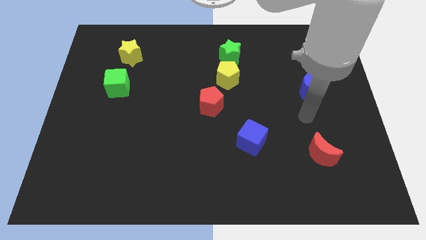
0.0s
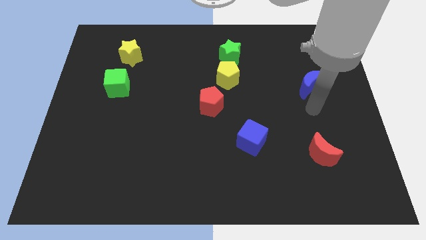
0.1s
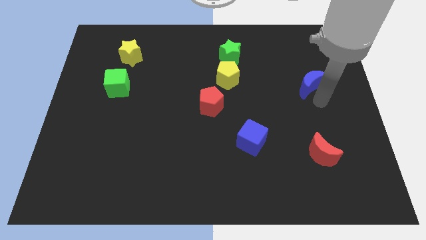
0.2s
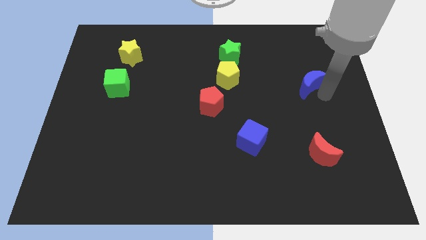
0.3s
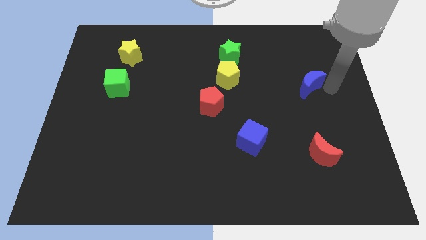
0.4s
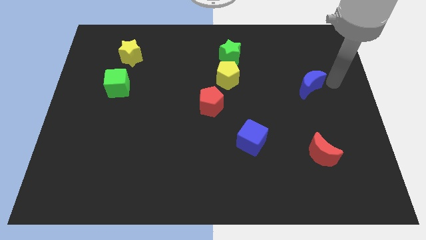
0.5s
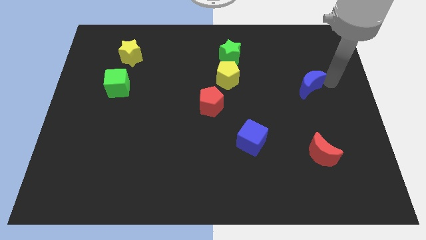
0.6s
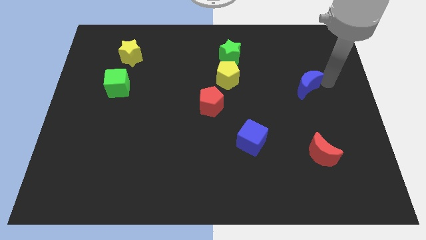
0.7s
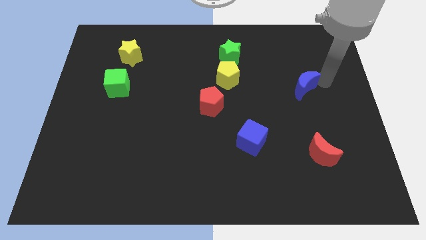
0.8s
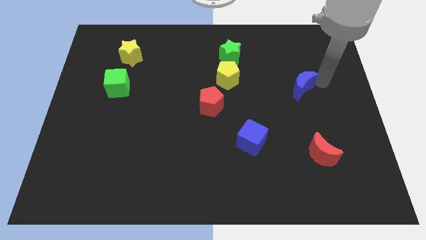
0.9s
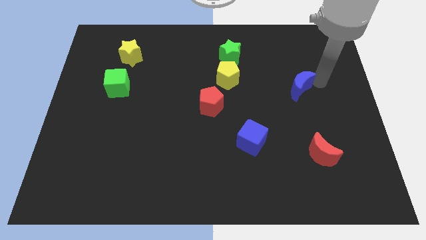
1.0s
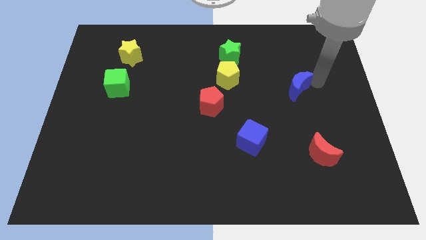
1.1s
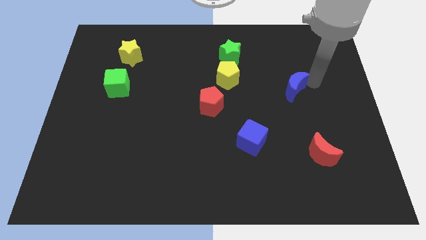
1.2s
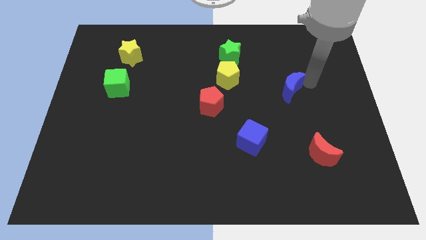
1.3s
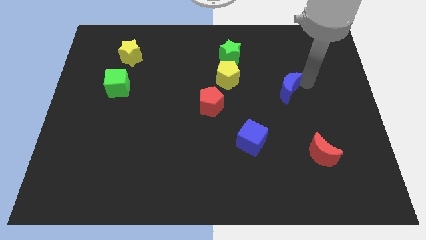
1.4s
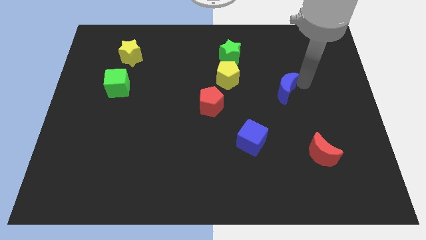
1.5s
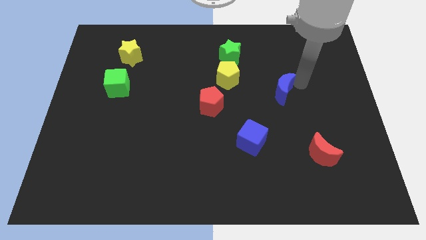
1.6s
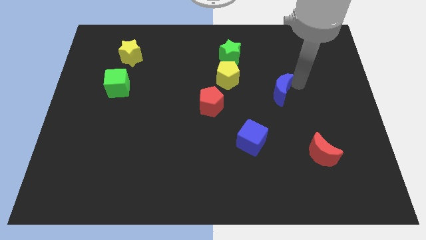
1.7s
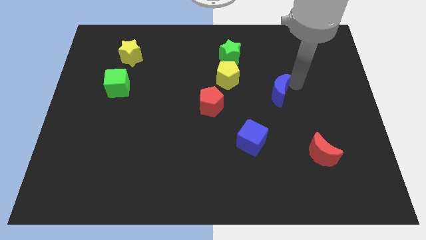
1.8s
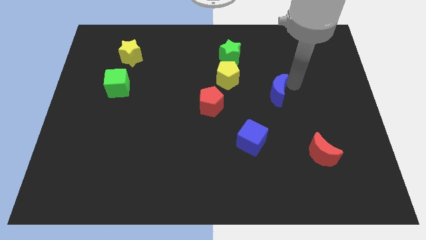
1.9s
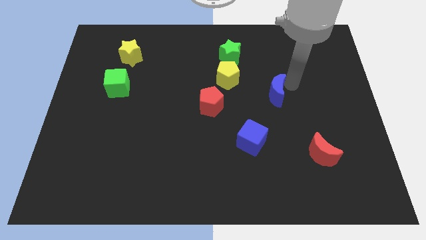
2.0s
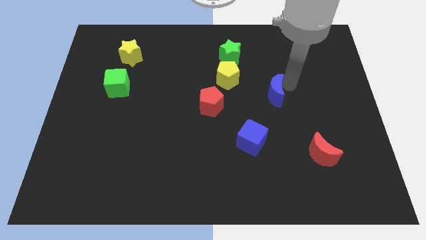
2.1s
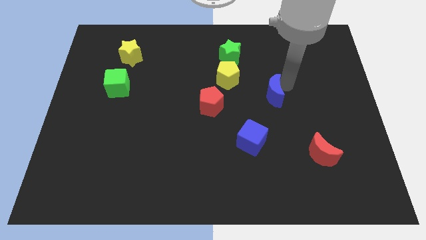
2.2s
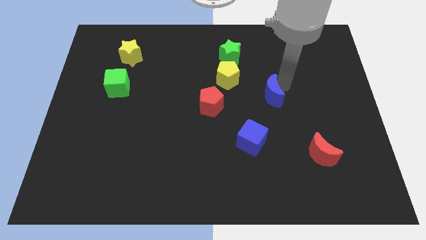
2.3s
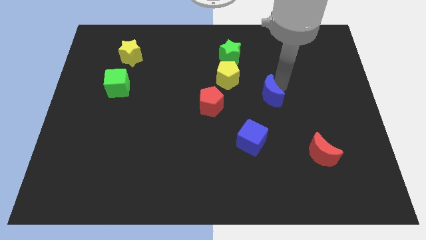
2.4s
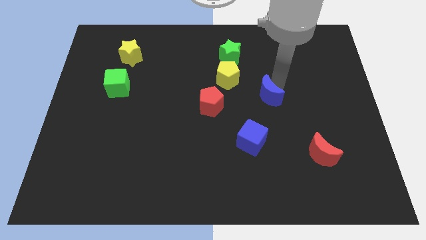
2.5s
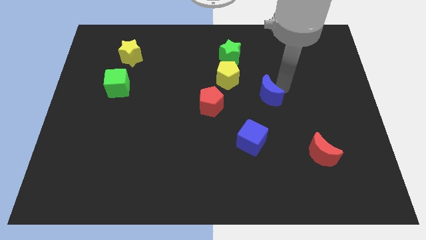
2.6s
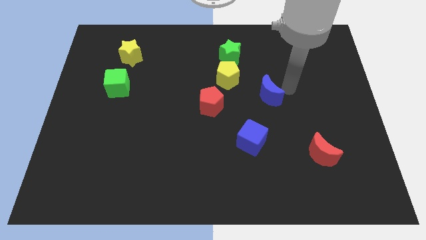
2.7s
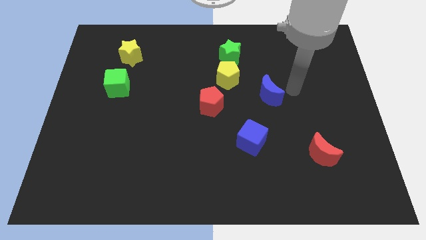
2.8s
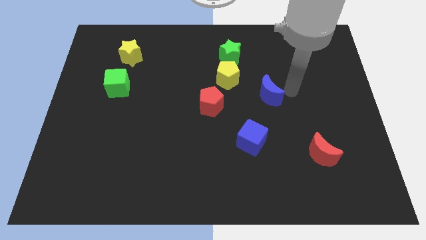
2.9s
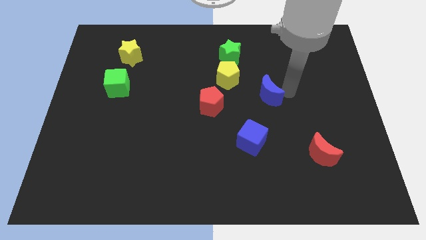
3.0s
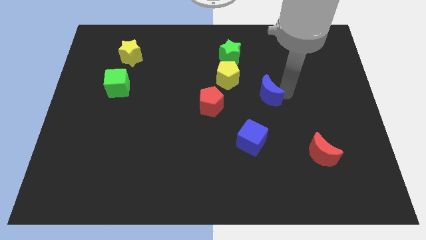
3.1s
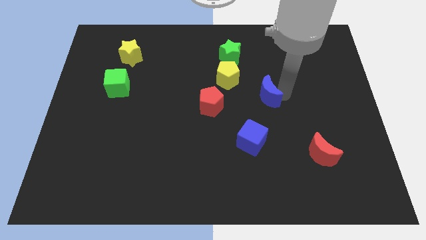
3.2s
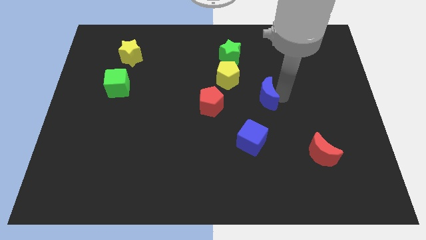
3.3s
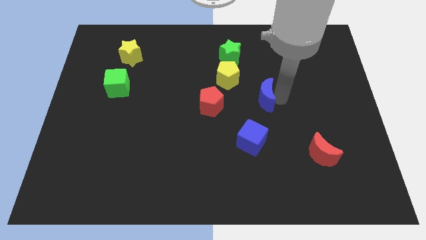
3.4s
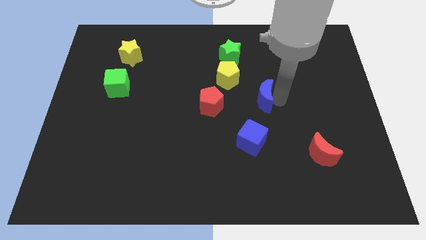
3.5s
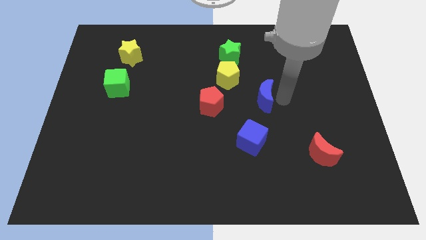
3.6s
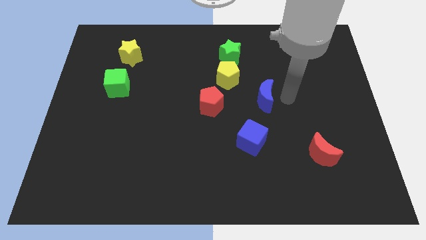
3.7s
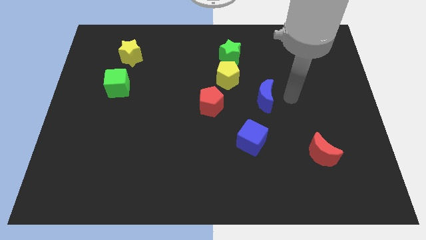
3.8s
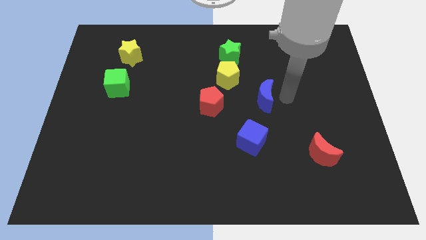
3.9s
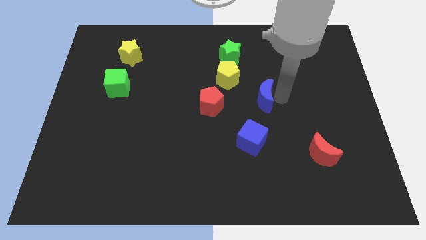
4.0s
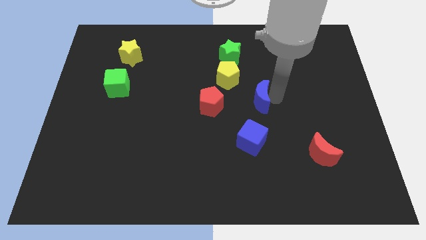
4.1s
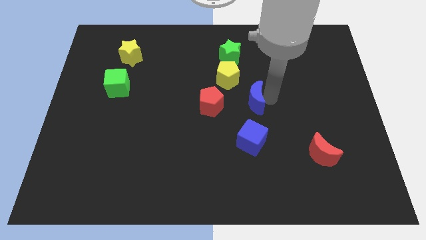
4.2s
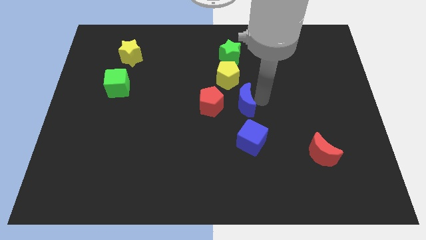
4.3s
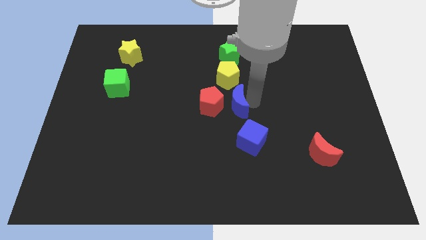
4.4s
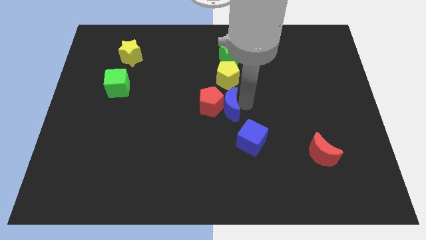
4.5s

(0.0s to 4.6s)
slide the blue moon to the red pentagon

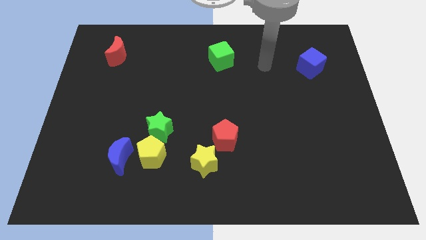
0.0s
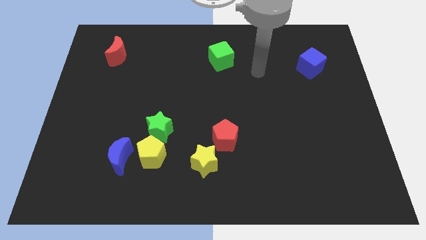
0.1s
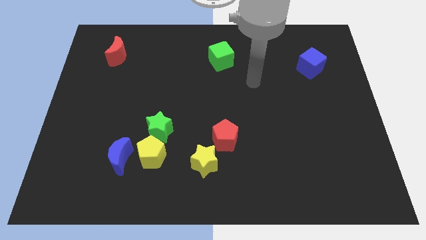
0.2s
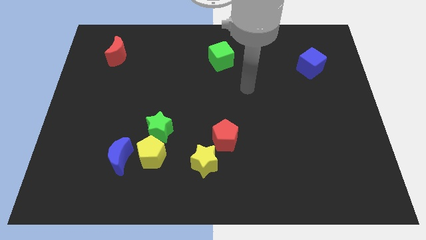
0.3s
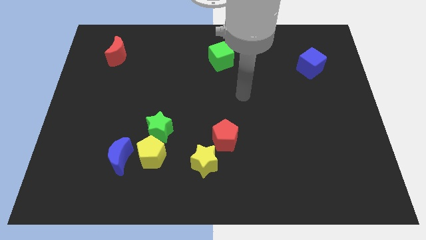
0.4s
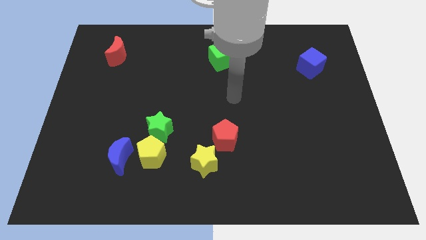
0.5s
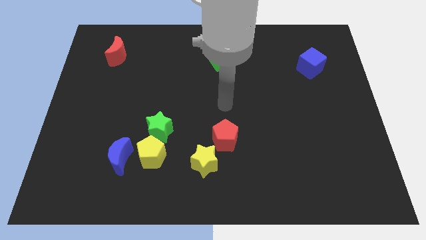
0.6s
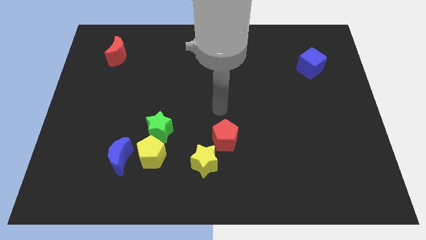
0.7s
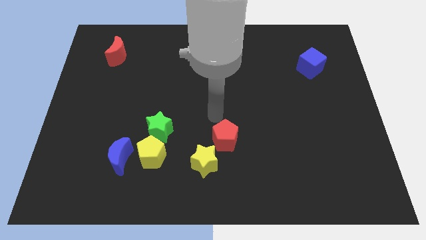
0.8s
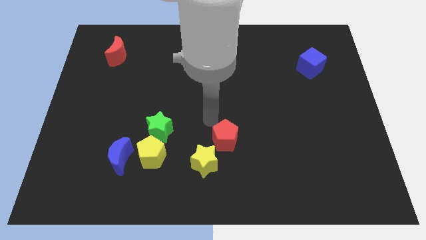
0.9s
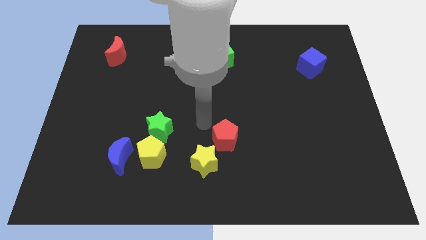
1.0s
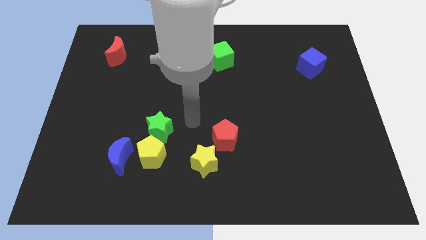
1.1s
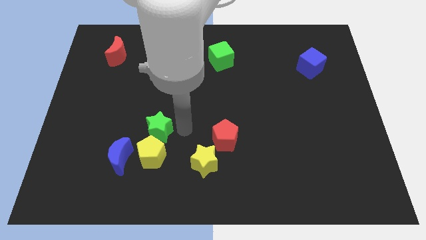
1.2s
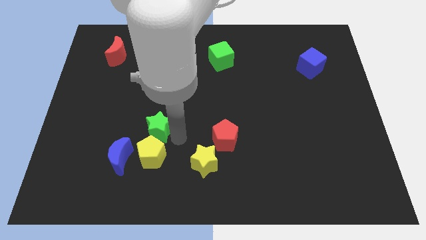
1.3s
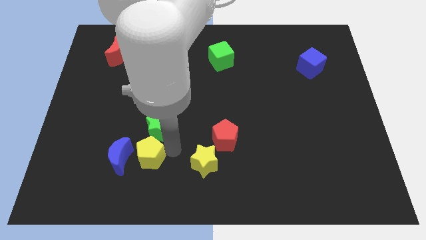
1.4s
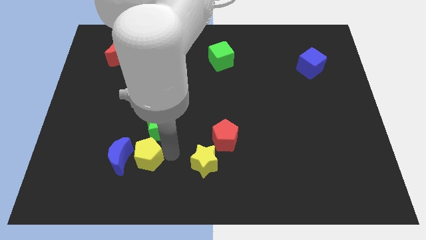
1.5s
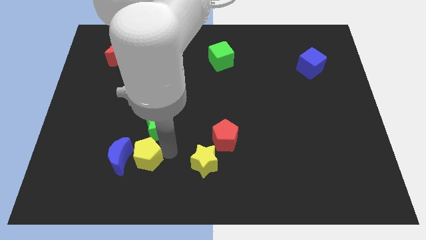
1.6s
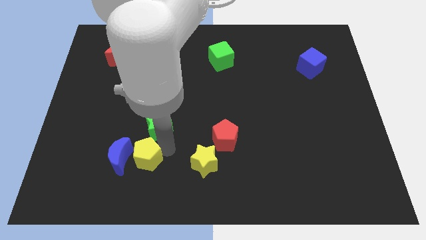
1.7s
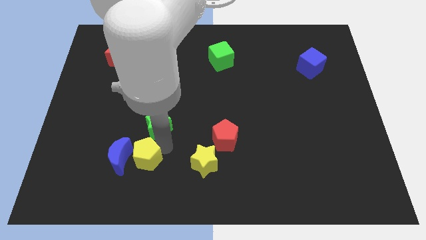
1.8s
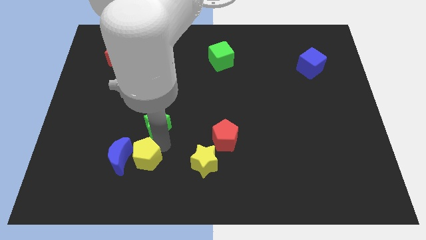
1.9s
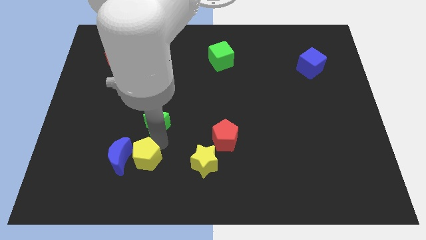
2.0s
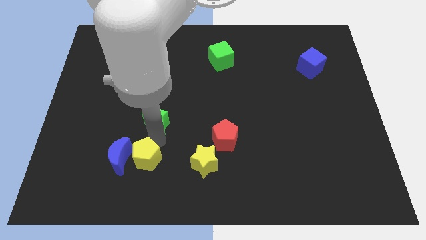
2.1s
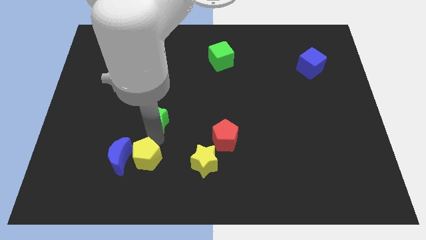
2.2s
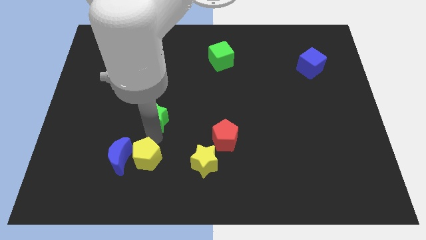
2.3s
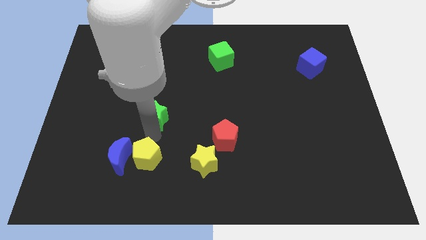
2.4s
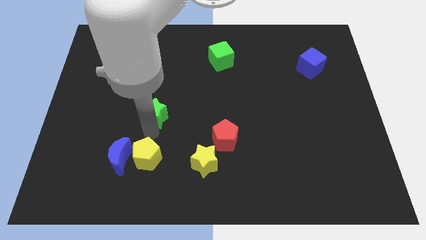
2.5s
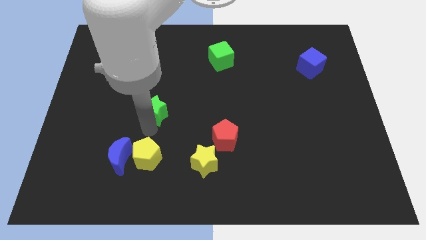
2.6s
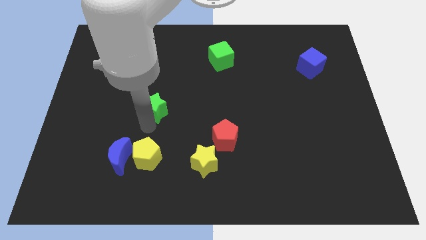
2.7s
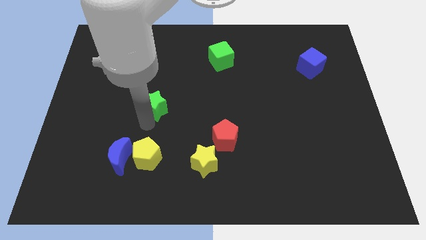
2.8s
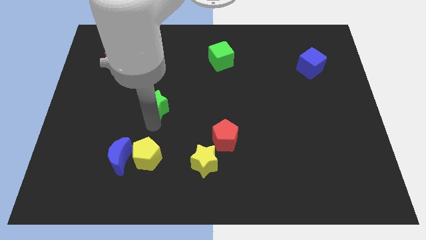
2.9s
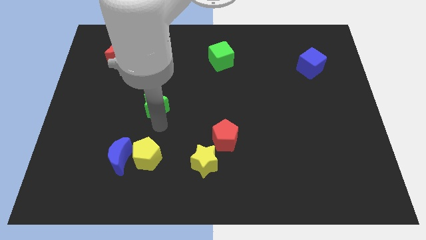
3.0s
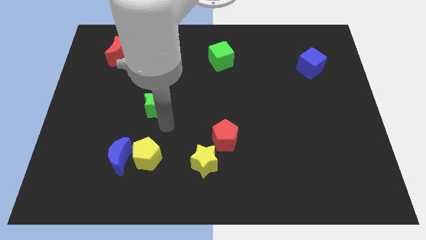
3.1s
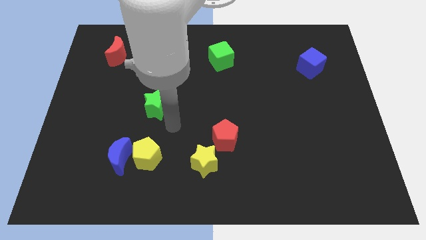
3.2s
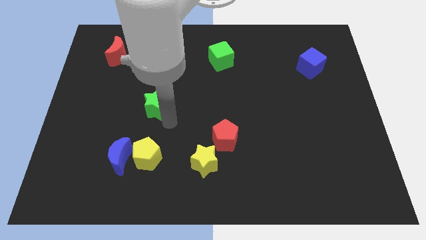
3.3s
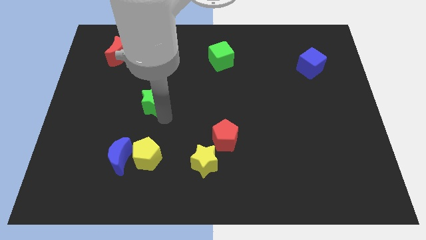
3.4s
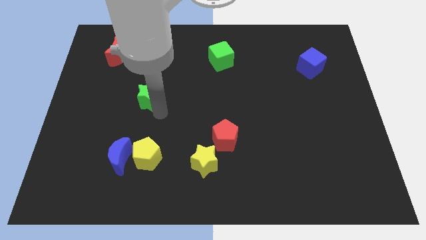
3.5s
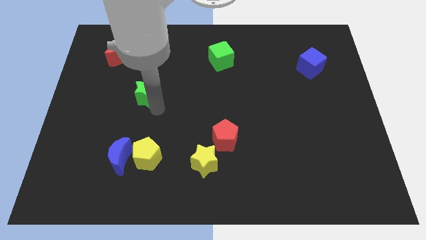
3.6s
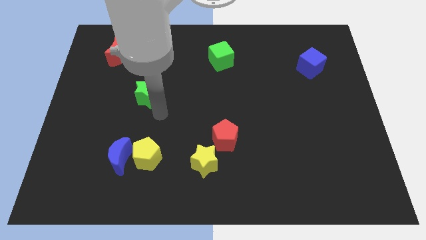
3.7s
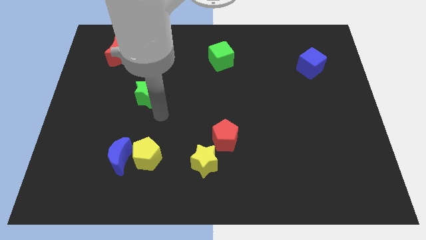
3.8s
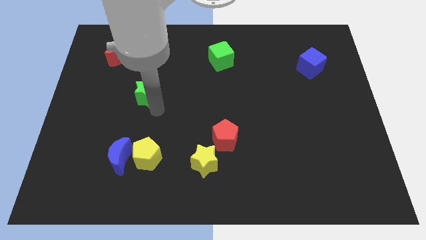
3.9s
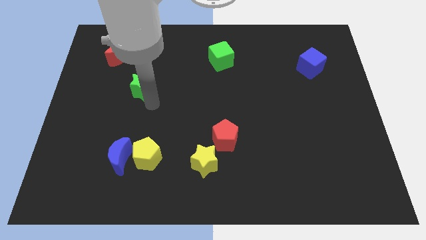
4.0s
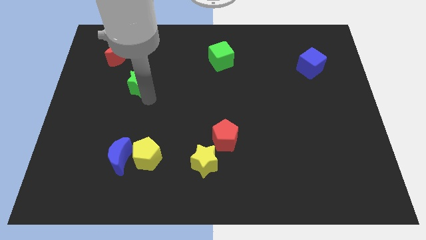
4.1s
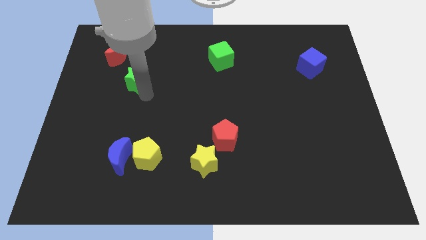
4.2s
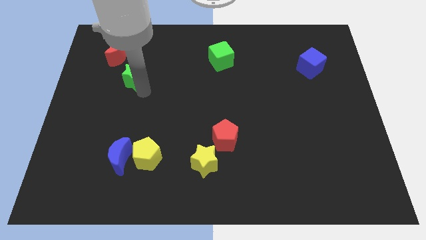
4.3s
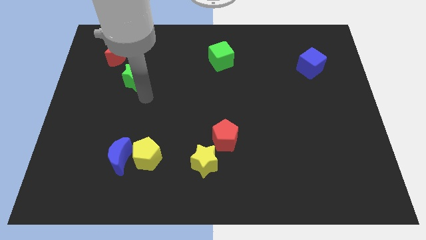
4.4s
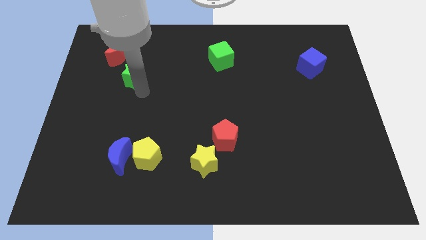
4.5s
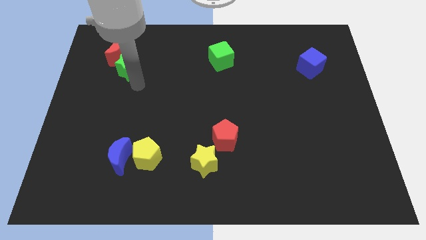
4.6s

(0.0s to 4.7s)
slide the green star to the red moon
